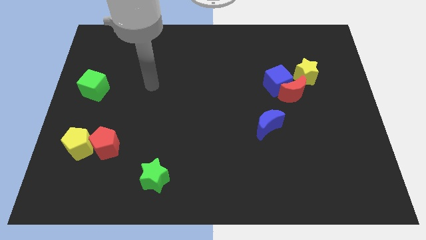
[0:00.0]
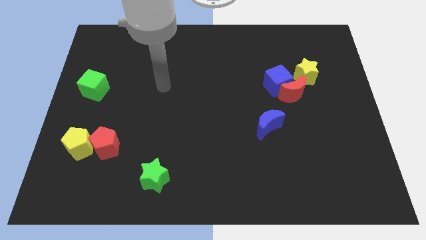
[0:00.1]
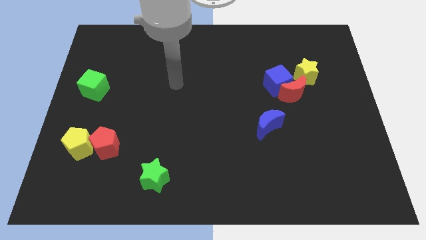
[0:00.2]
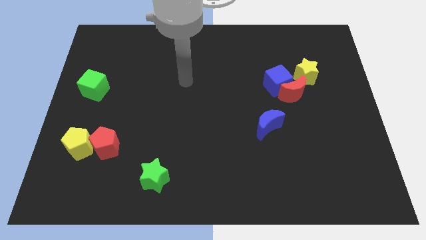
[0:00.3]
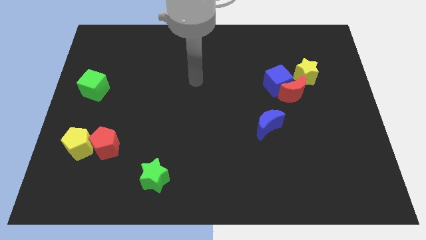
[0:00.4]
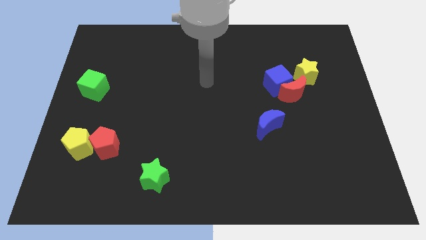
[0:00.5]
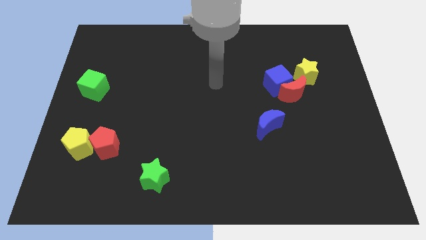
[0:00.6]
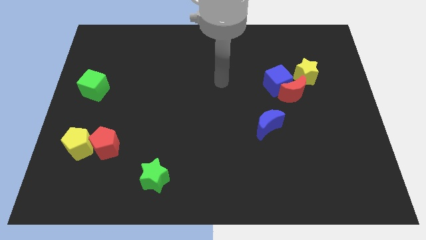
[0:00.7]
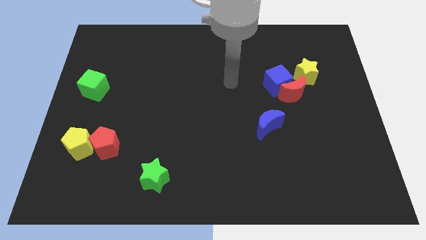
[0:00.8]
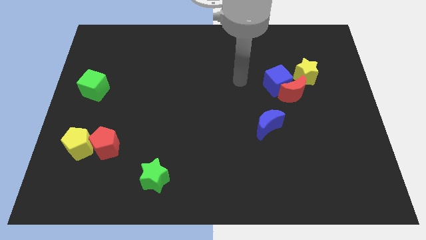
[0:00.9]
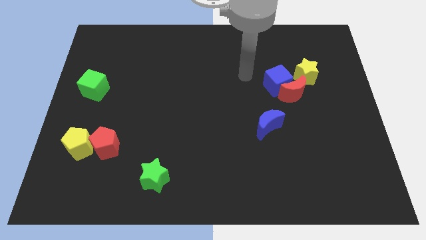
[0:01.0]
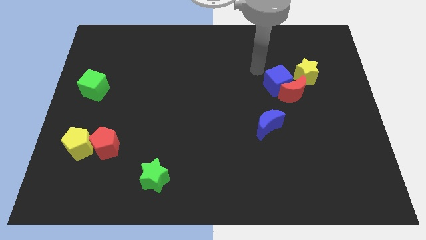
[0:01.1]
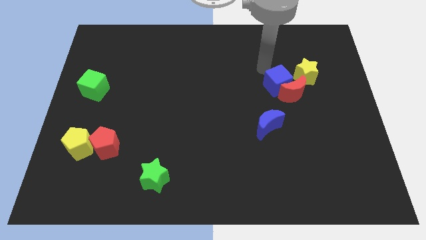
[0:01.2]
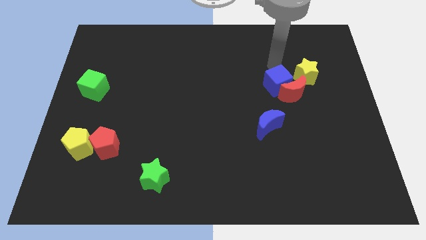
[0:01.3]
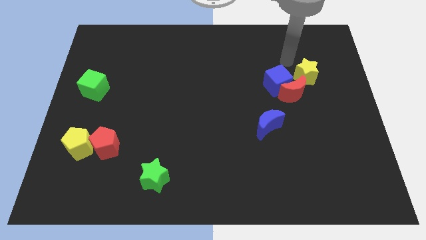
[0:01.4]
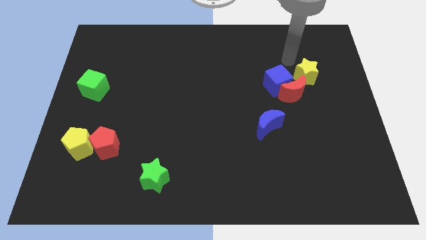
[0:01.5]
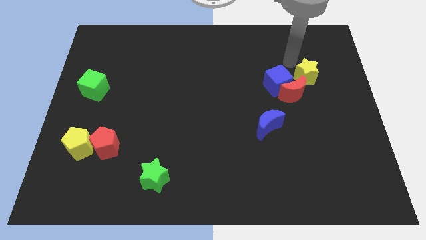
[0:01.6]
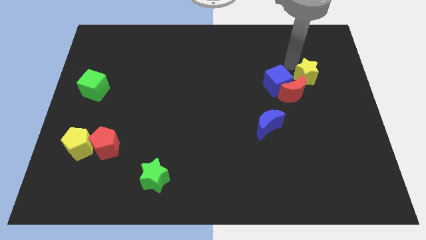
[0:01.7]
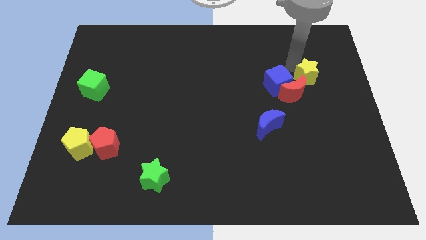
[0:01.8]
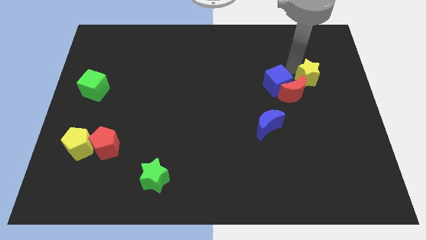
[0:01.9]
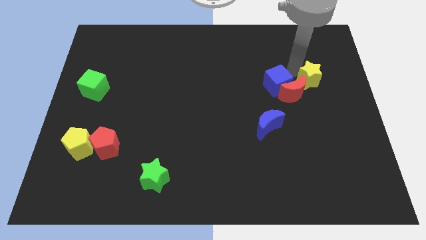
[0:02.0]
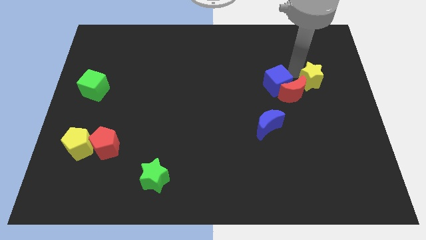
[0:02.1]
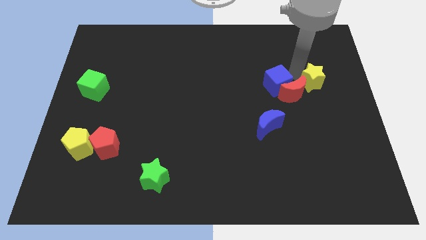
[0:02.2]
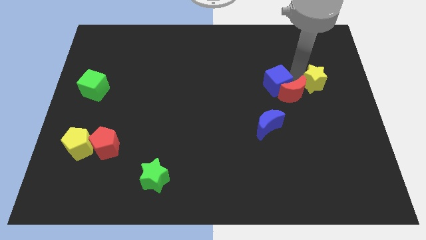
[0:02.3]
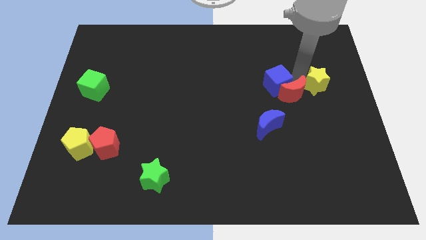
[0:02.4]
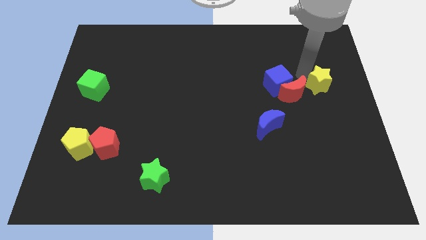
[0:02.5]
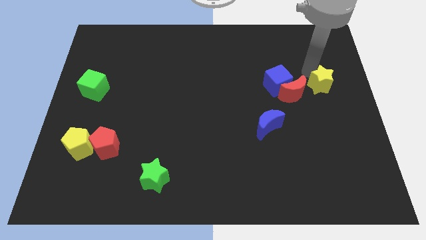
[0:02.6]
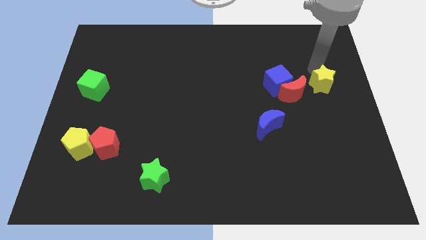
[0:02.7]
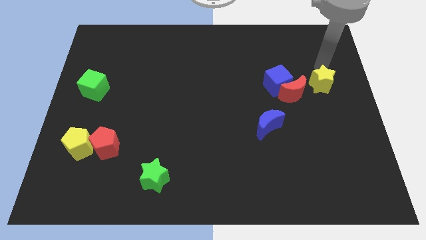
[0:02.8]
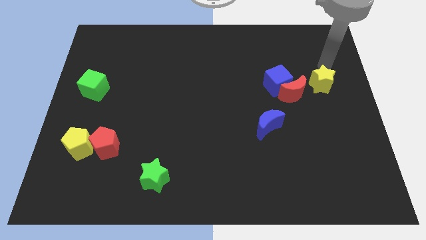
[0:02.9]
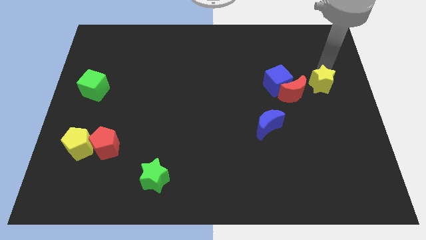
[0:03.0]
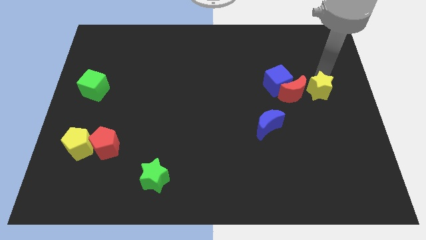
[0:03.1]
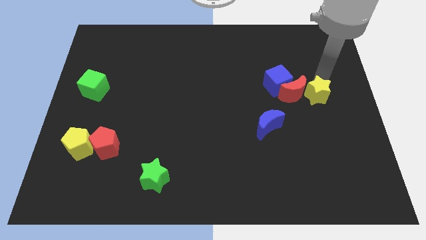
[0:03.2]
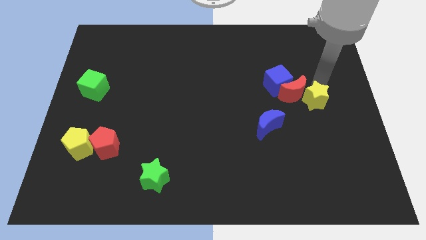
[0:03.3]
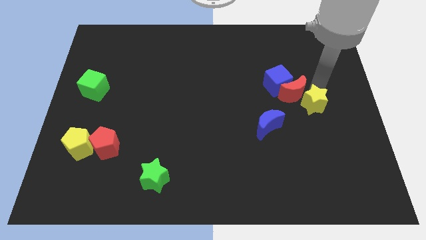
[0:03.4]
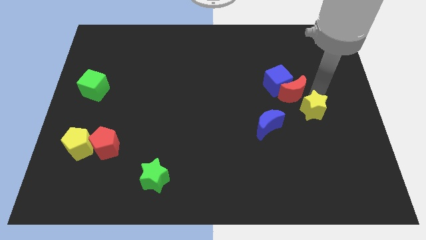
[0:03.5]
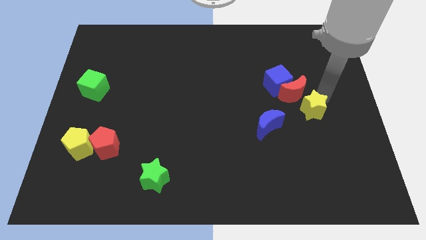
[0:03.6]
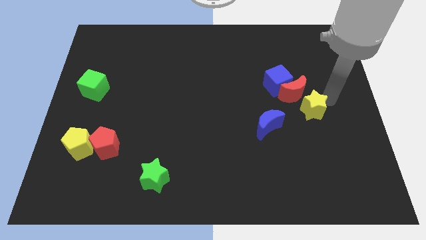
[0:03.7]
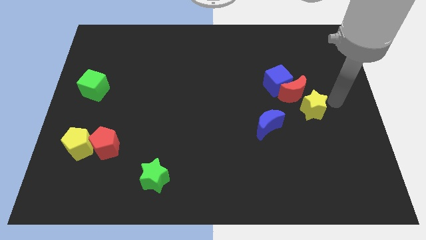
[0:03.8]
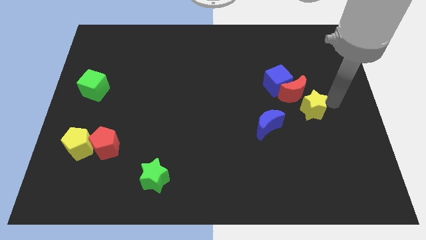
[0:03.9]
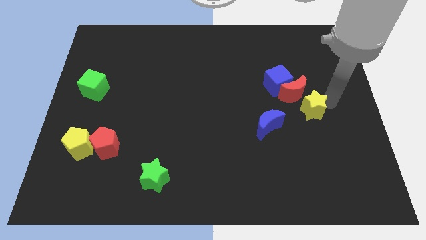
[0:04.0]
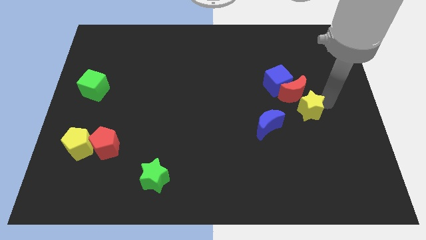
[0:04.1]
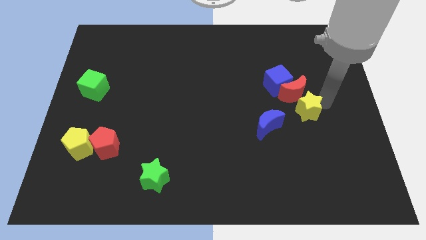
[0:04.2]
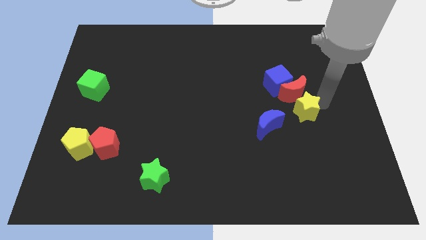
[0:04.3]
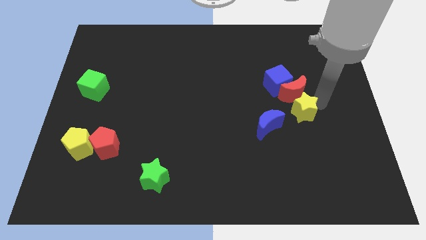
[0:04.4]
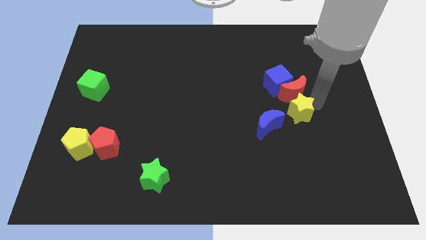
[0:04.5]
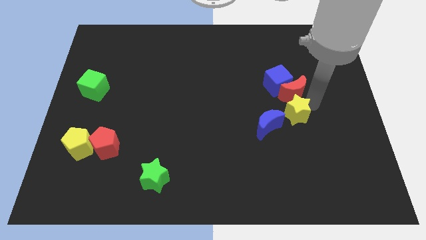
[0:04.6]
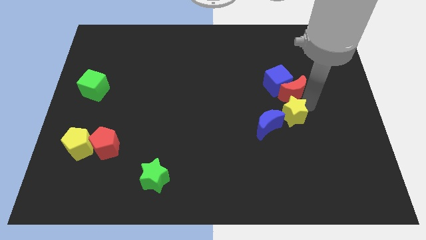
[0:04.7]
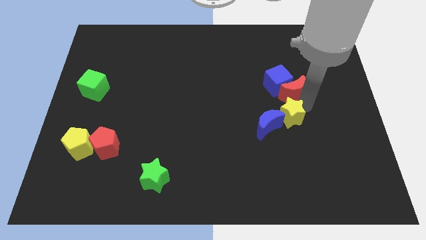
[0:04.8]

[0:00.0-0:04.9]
move the yellow star towards the blue moon

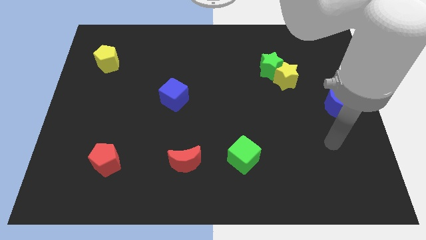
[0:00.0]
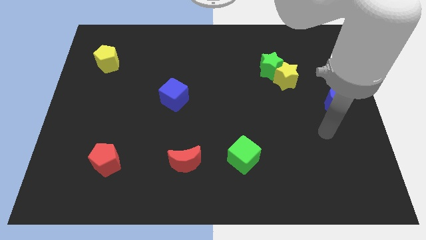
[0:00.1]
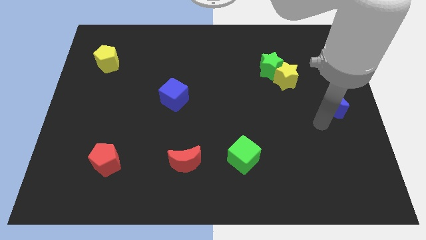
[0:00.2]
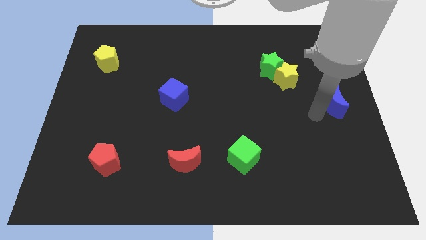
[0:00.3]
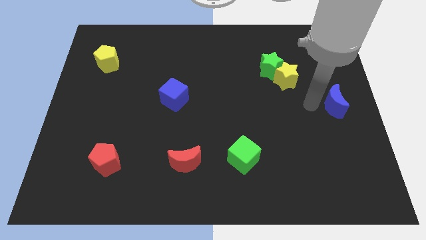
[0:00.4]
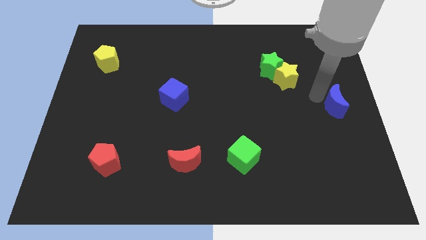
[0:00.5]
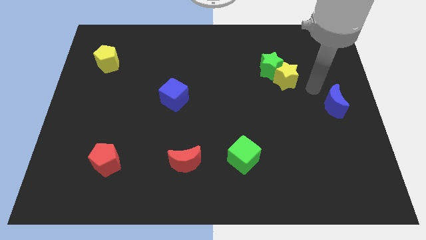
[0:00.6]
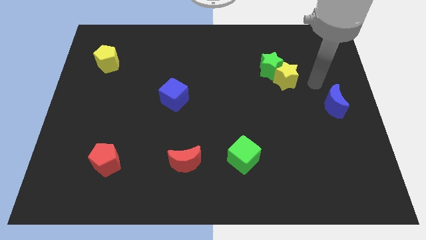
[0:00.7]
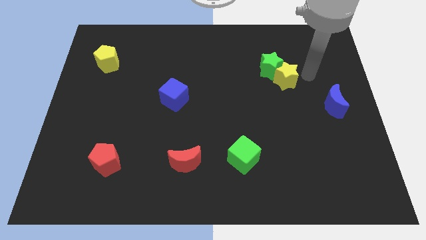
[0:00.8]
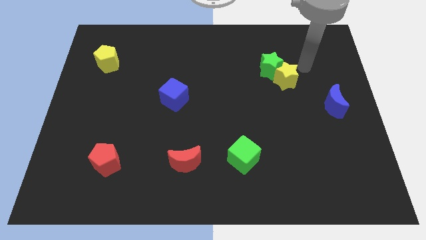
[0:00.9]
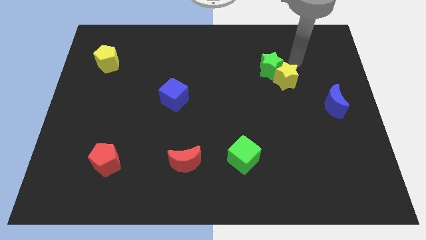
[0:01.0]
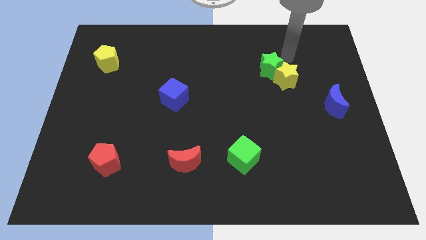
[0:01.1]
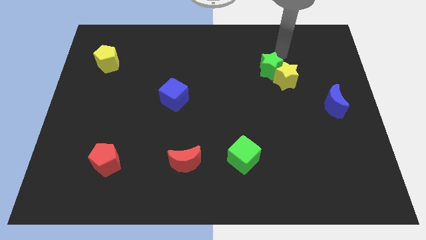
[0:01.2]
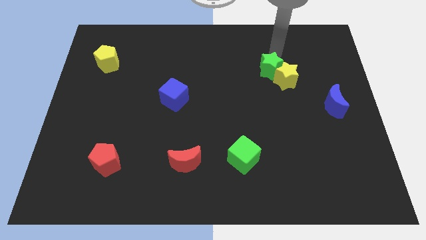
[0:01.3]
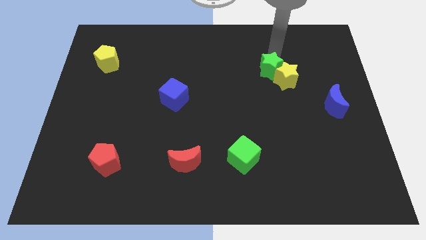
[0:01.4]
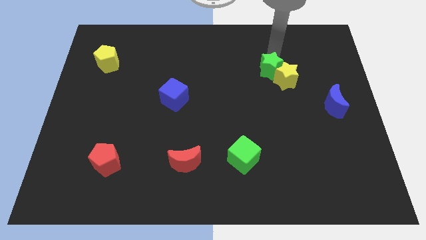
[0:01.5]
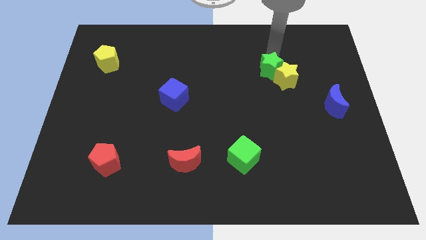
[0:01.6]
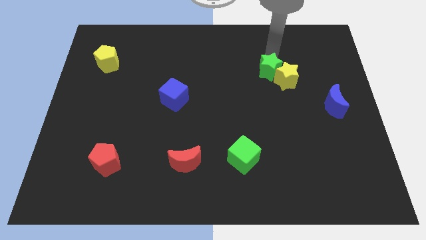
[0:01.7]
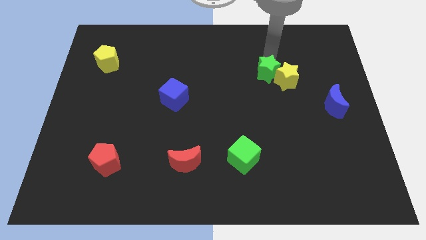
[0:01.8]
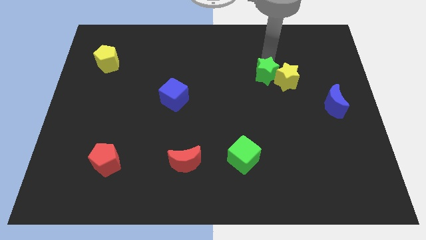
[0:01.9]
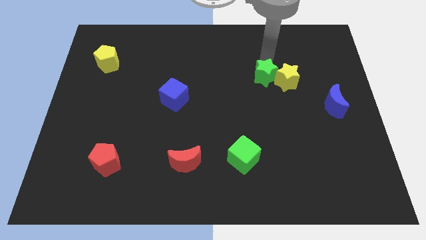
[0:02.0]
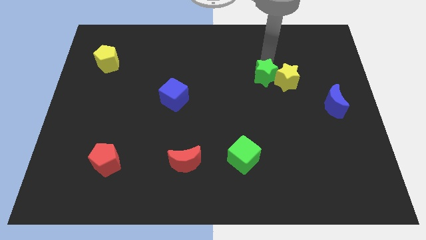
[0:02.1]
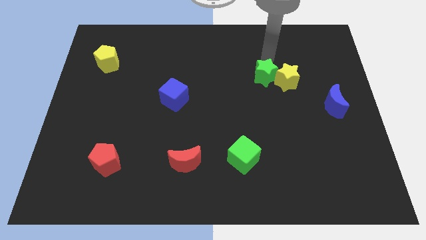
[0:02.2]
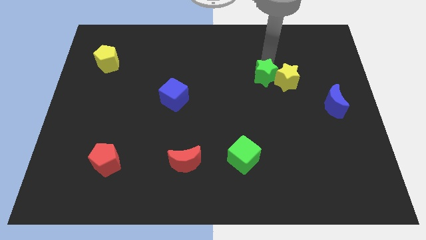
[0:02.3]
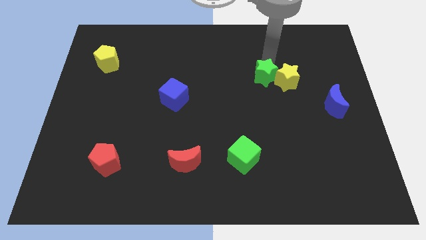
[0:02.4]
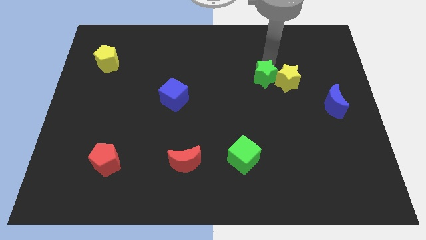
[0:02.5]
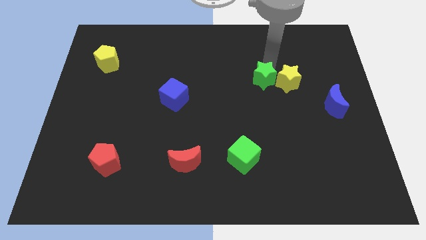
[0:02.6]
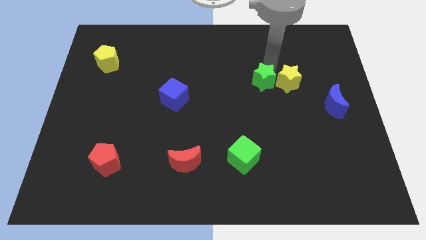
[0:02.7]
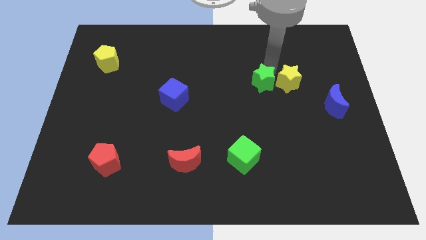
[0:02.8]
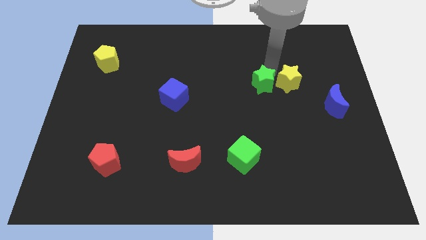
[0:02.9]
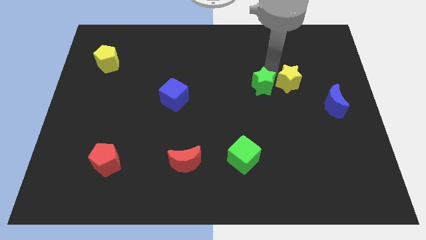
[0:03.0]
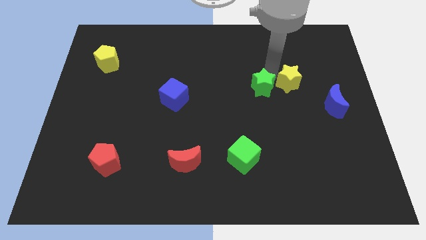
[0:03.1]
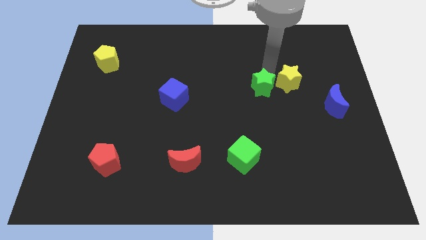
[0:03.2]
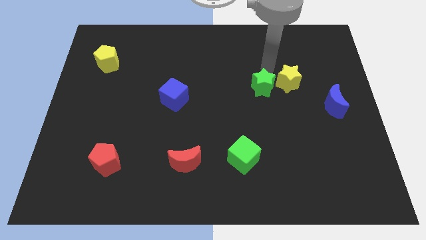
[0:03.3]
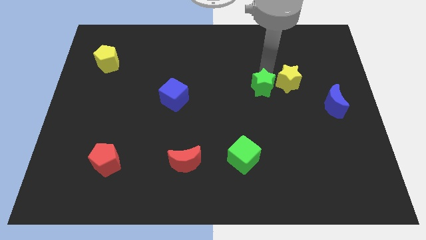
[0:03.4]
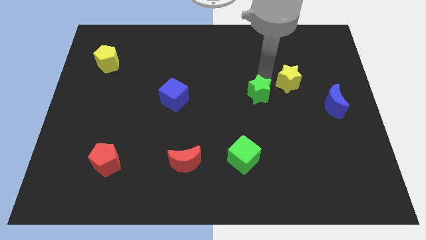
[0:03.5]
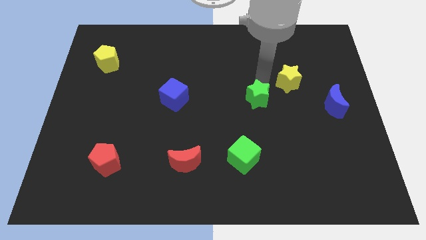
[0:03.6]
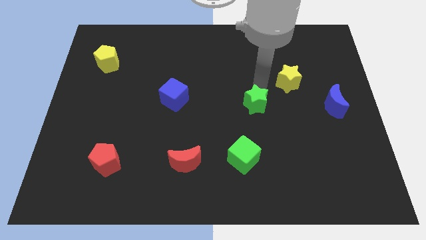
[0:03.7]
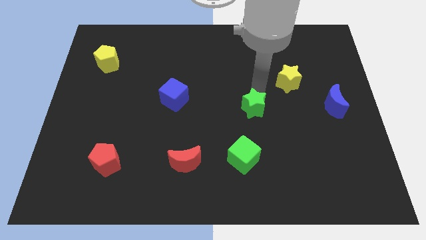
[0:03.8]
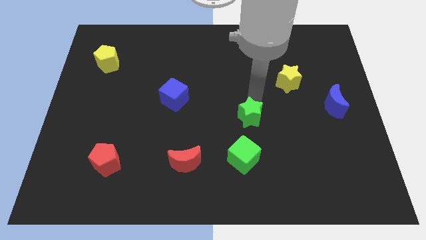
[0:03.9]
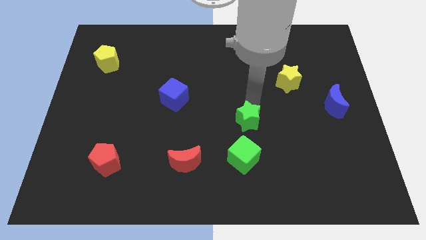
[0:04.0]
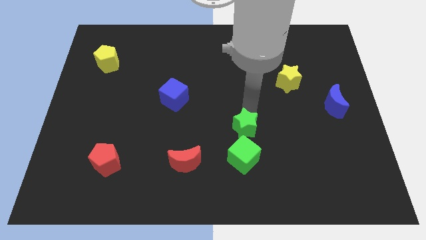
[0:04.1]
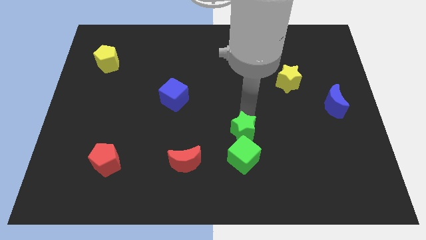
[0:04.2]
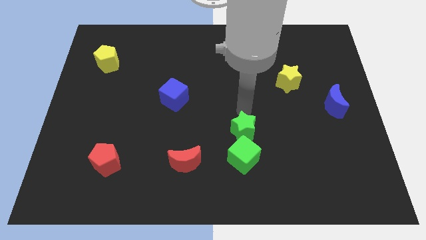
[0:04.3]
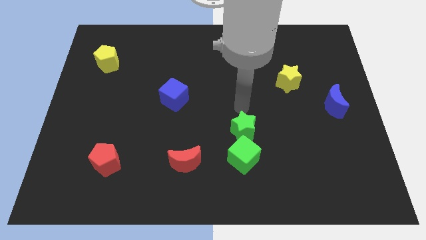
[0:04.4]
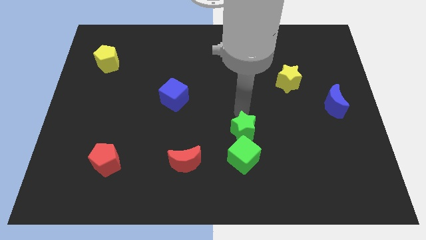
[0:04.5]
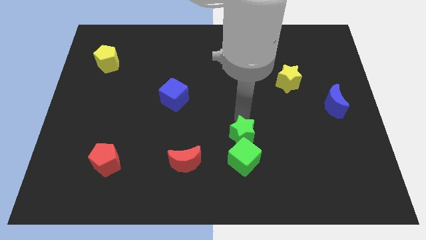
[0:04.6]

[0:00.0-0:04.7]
move the green star close to the green cube
